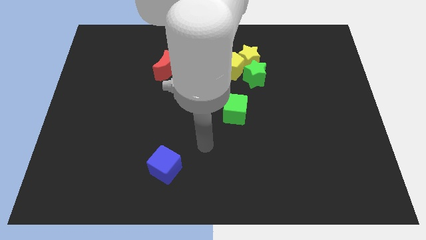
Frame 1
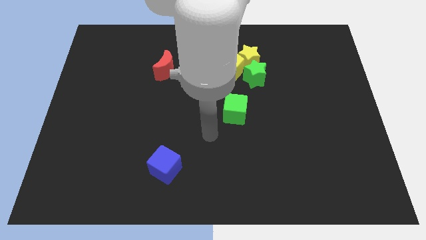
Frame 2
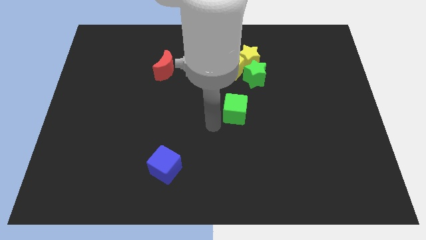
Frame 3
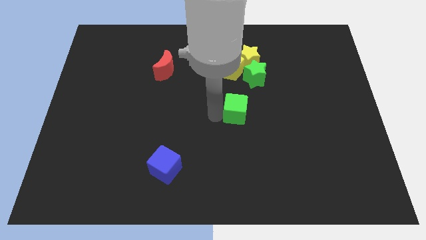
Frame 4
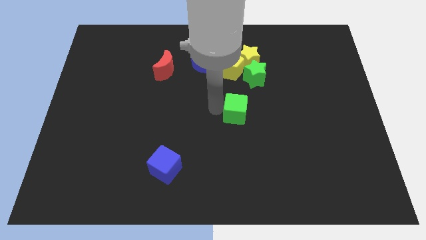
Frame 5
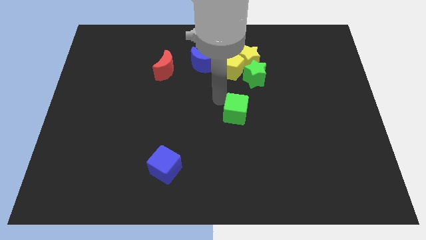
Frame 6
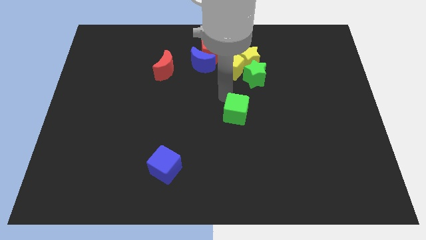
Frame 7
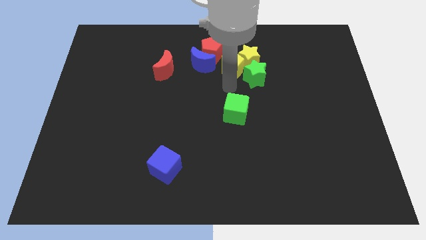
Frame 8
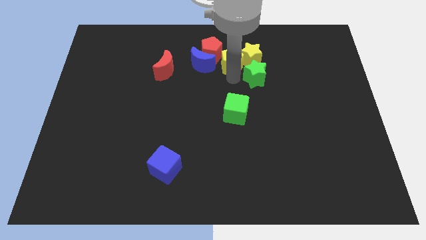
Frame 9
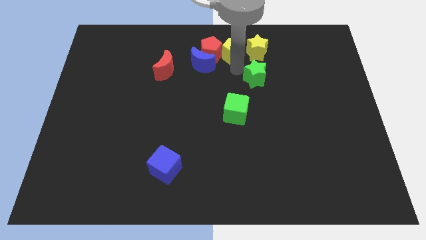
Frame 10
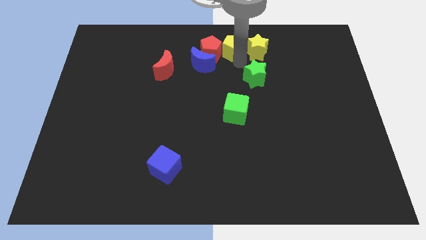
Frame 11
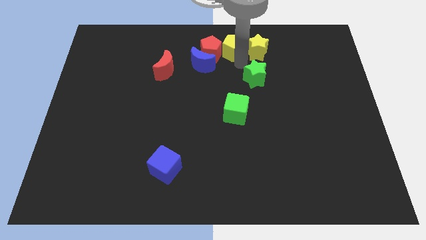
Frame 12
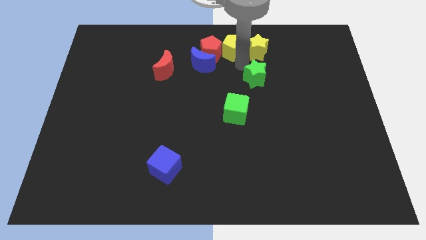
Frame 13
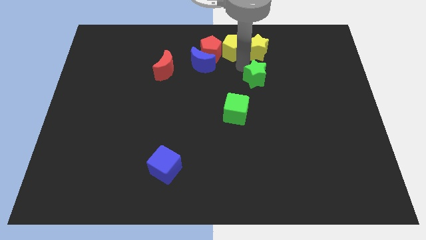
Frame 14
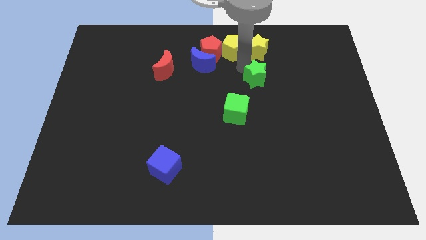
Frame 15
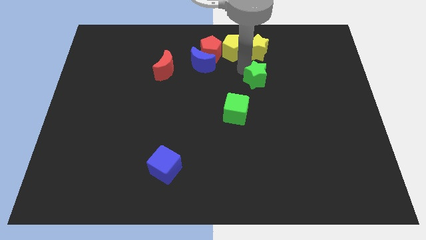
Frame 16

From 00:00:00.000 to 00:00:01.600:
move the green star away from the yellow star and yellow pentagon

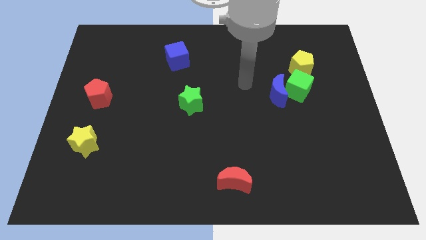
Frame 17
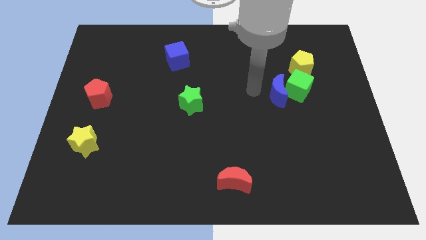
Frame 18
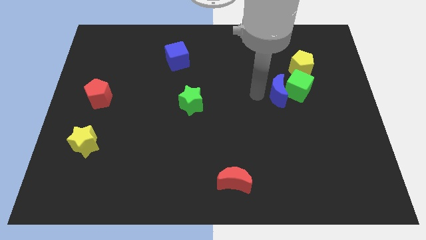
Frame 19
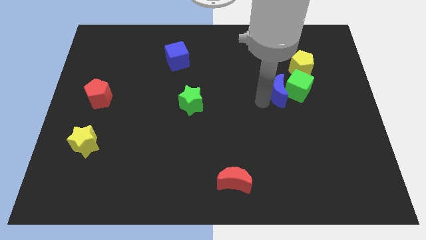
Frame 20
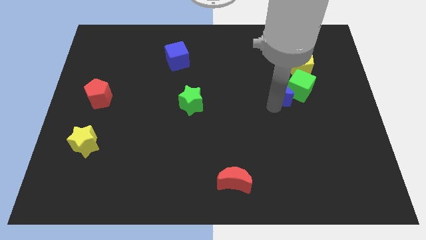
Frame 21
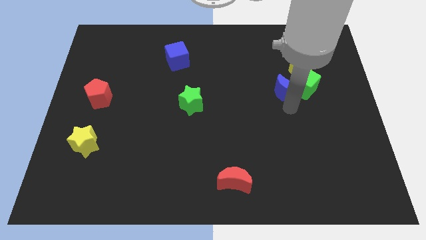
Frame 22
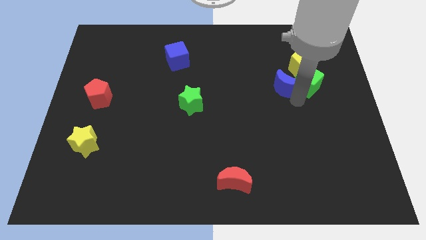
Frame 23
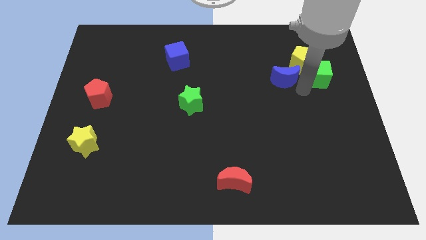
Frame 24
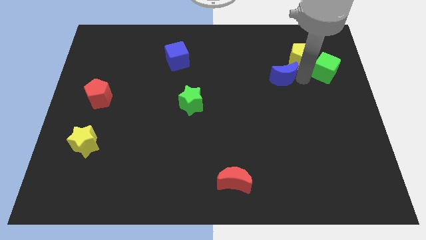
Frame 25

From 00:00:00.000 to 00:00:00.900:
pull the blue moon apart from the green cube

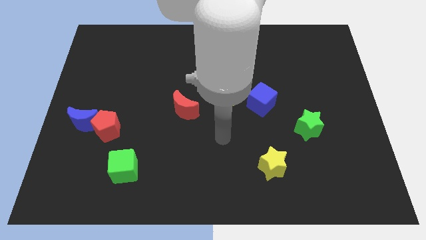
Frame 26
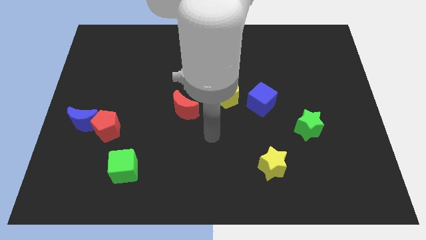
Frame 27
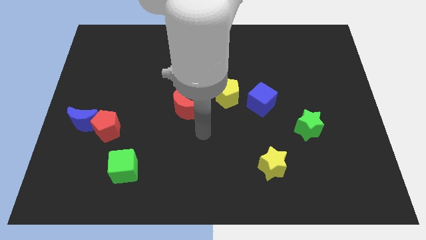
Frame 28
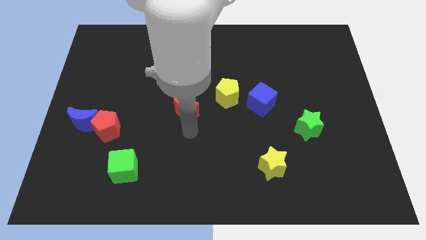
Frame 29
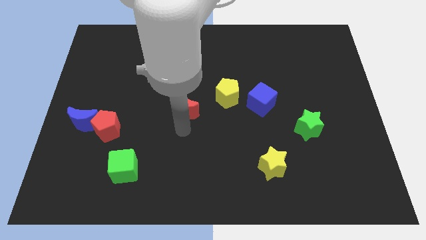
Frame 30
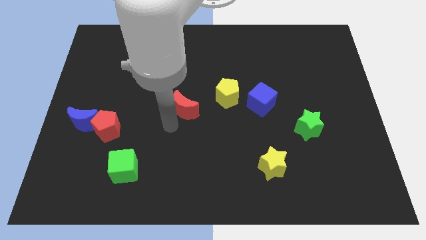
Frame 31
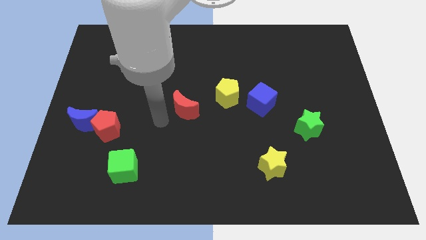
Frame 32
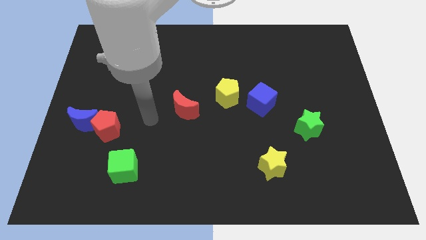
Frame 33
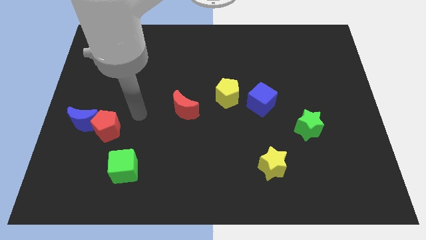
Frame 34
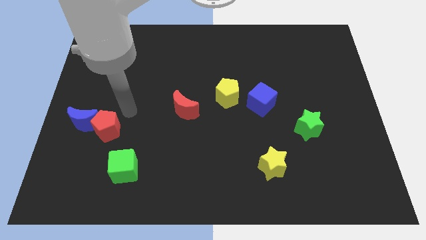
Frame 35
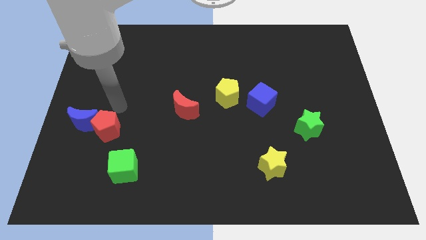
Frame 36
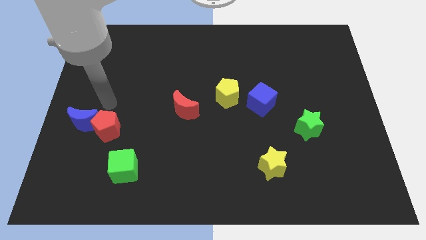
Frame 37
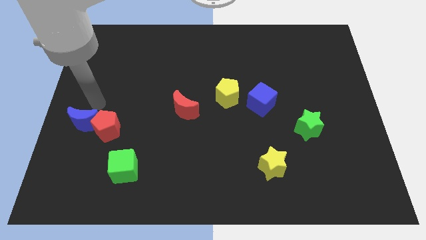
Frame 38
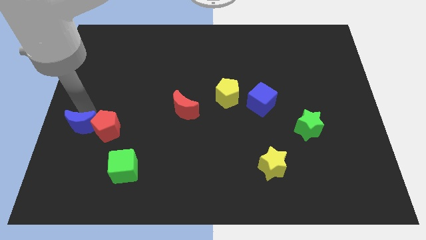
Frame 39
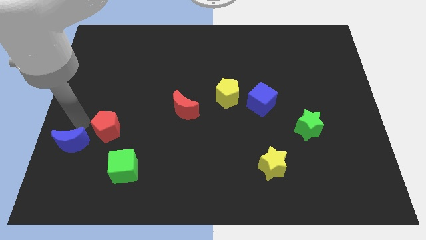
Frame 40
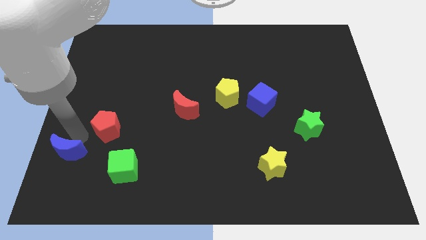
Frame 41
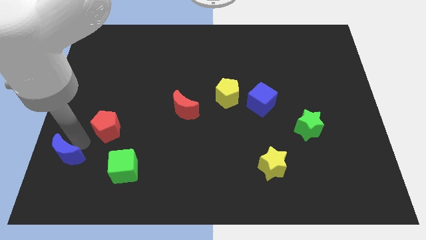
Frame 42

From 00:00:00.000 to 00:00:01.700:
separate the red pentagon from the blue moon

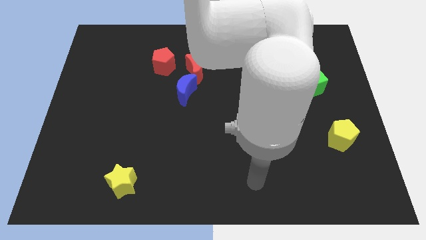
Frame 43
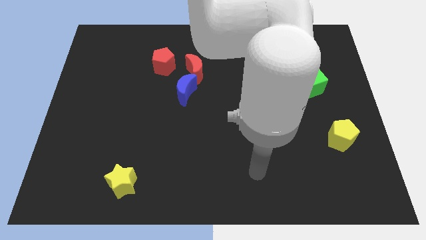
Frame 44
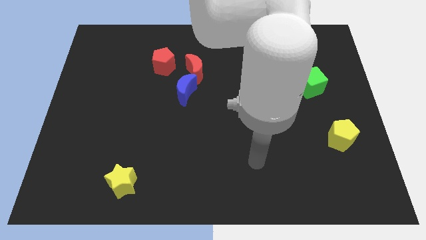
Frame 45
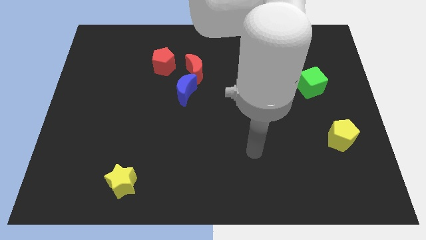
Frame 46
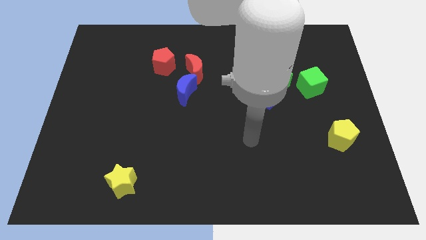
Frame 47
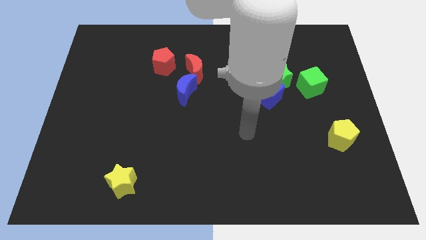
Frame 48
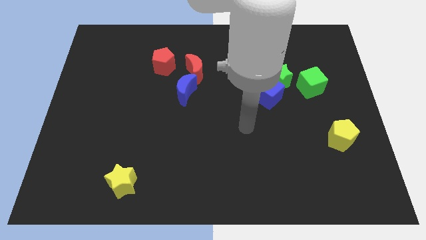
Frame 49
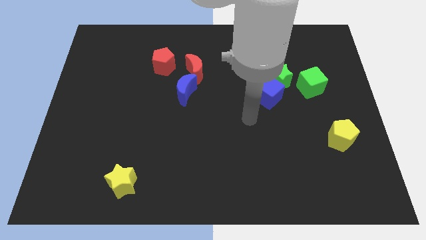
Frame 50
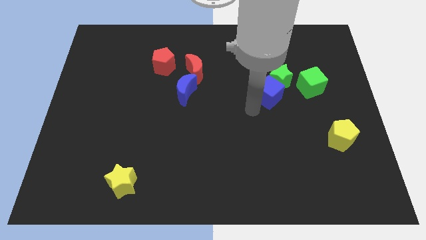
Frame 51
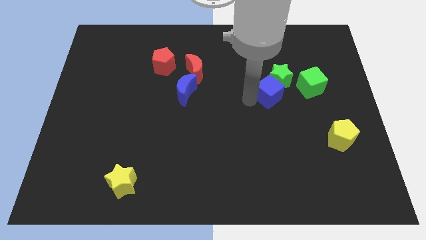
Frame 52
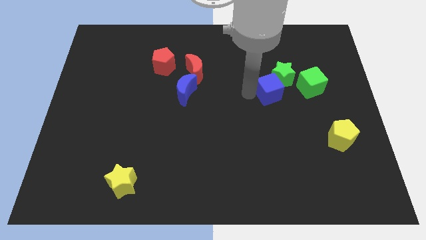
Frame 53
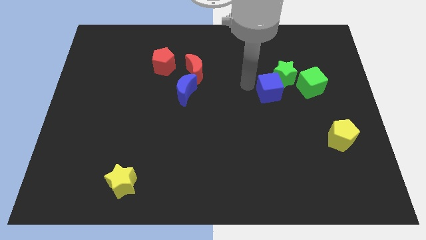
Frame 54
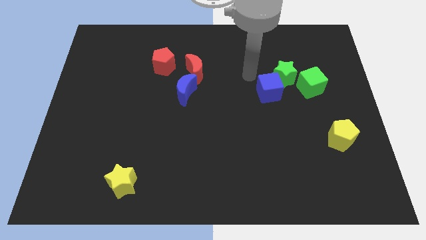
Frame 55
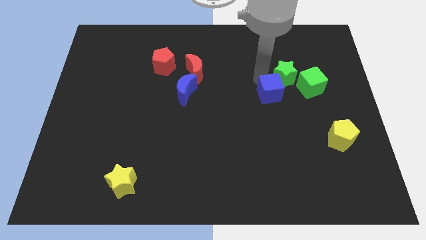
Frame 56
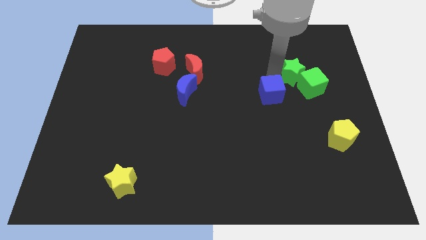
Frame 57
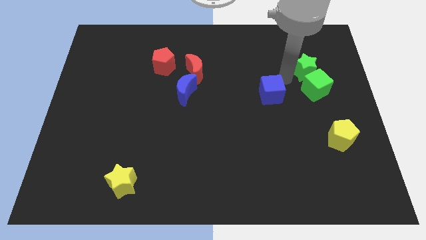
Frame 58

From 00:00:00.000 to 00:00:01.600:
move the blue cube away from the green star

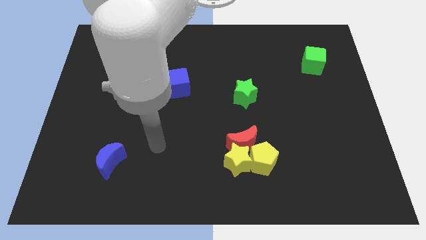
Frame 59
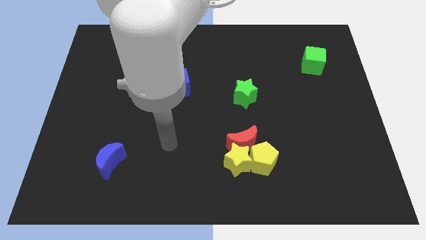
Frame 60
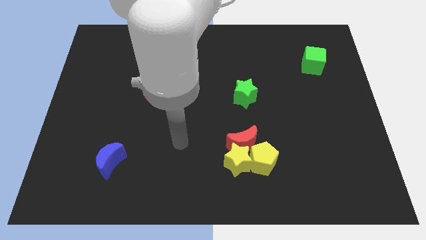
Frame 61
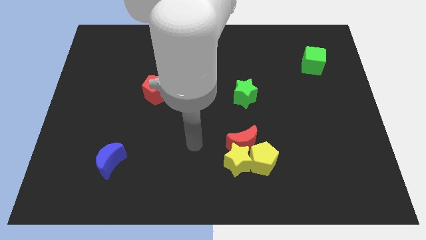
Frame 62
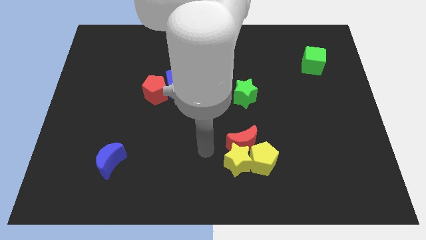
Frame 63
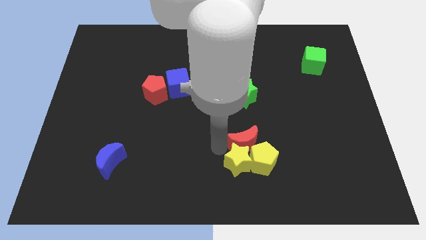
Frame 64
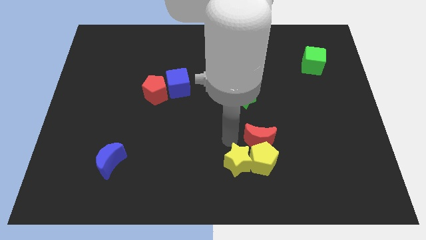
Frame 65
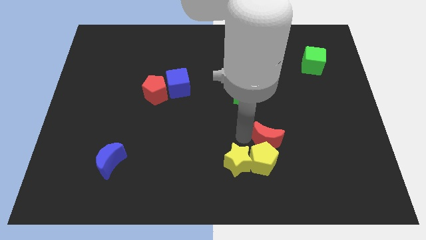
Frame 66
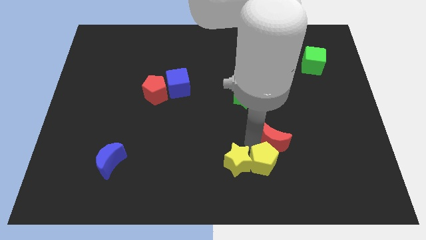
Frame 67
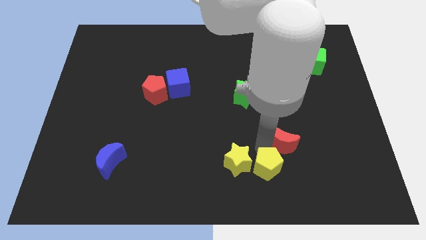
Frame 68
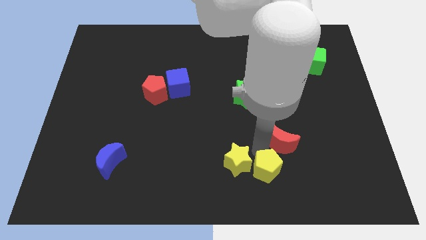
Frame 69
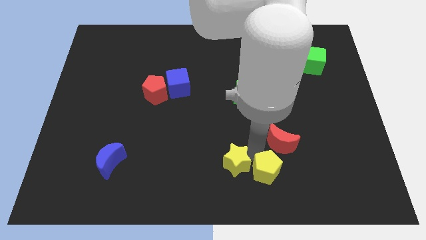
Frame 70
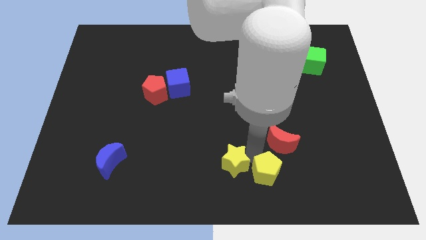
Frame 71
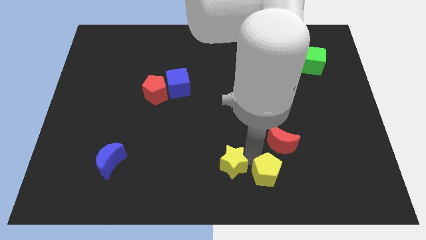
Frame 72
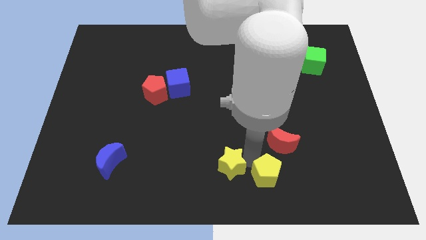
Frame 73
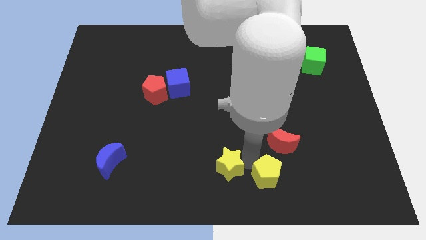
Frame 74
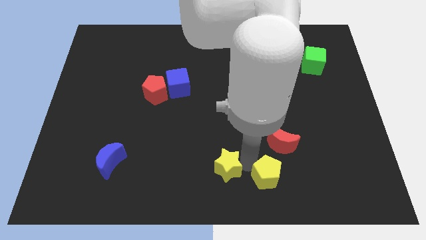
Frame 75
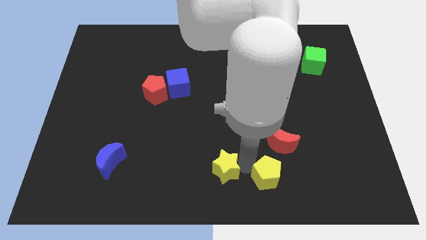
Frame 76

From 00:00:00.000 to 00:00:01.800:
move the yellow star away from the red moon and yellow pentagon

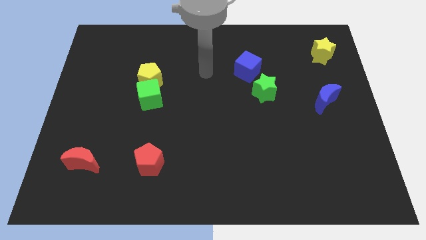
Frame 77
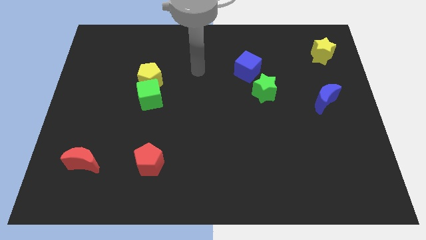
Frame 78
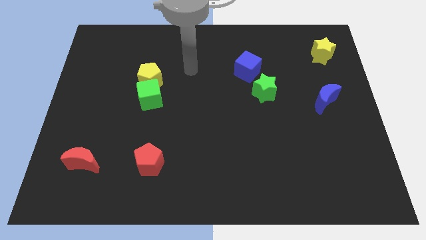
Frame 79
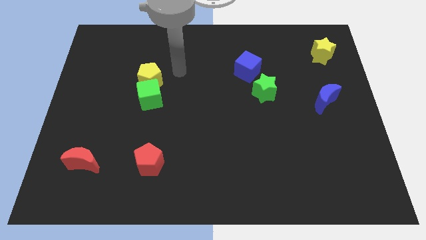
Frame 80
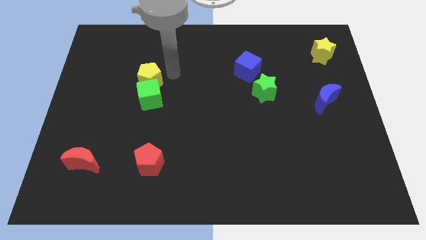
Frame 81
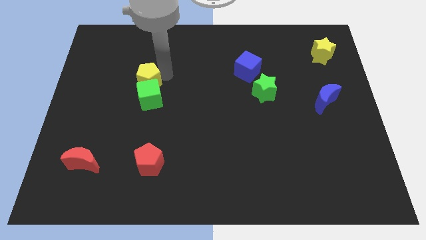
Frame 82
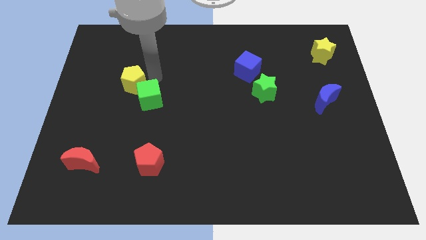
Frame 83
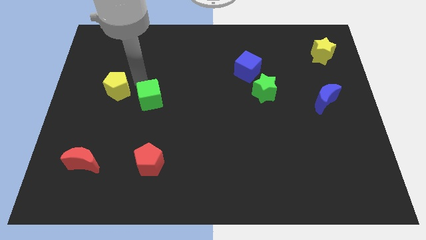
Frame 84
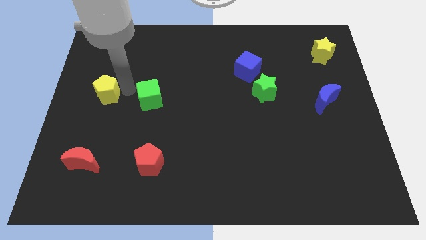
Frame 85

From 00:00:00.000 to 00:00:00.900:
separate the green cube from the yellow pentagon

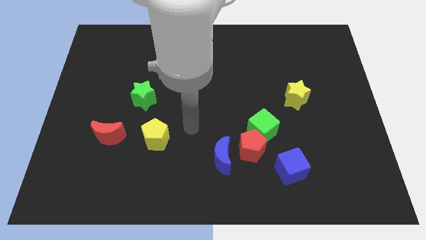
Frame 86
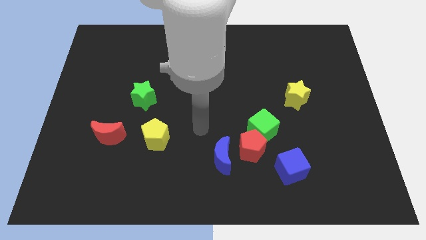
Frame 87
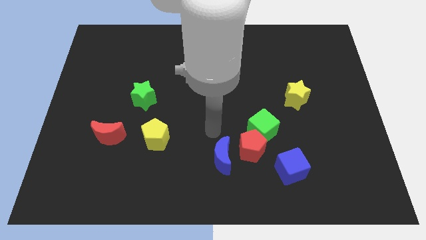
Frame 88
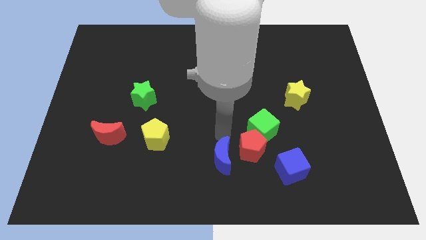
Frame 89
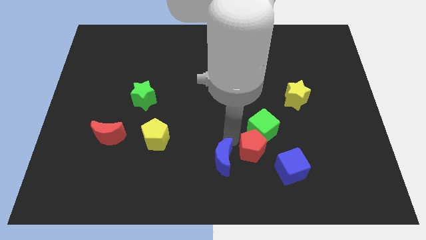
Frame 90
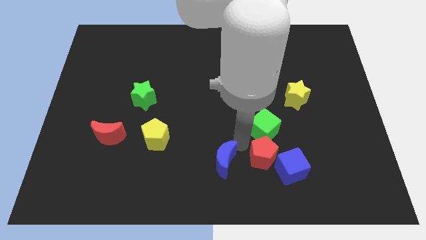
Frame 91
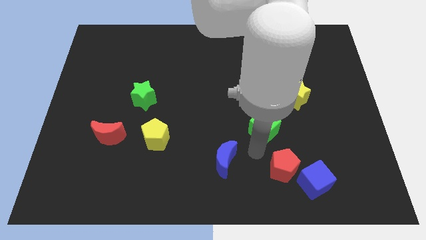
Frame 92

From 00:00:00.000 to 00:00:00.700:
pull the green cube apart from the red pentagon
